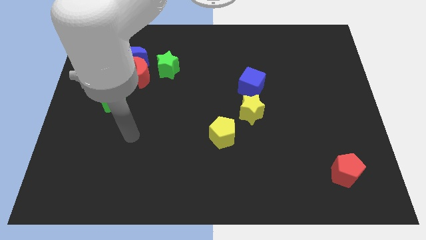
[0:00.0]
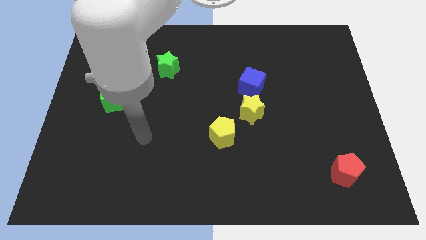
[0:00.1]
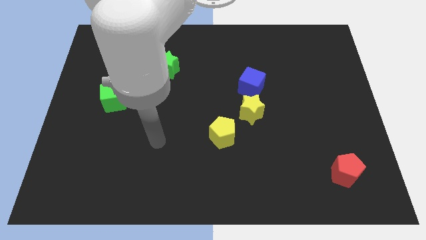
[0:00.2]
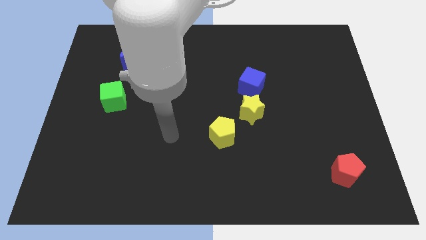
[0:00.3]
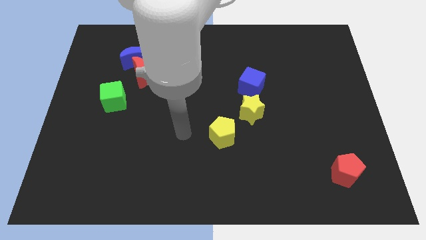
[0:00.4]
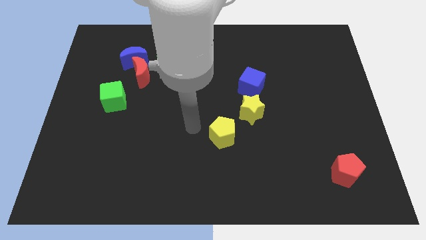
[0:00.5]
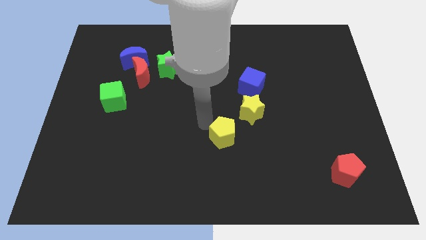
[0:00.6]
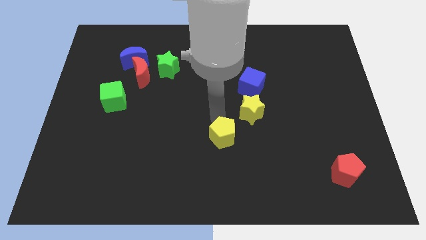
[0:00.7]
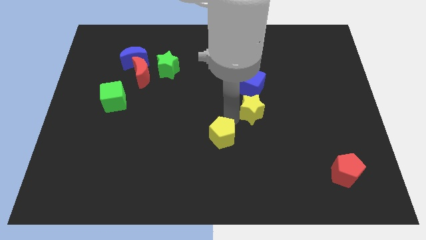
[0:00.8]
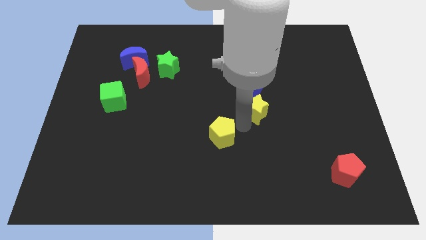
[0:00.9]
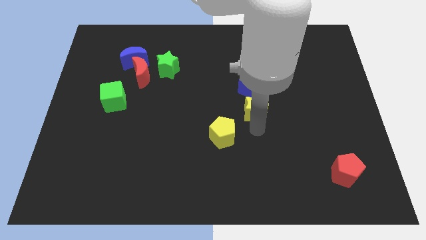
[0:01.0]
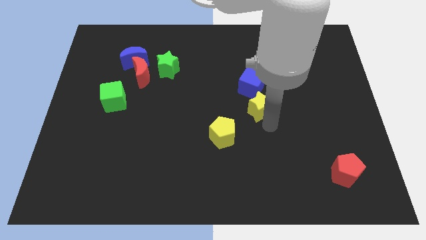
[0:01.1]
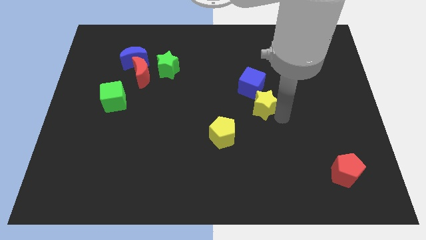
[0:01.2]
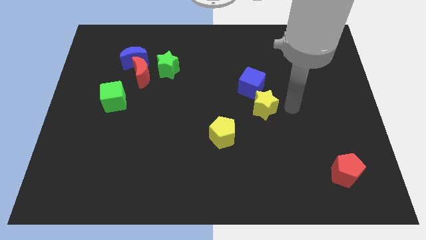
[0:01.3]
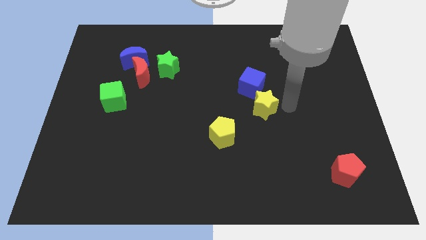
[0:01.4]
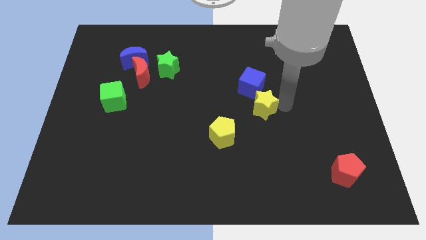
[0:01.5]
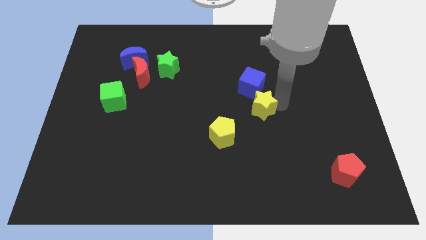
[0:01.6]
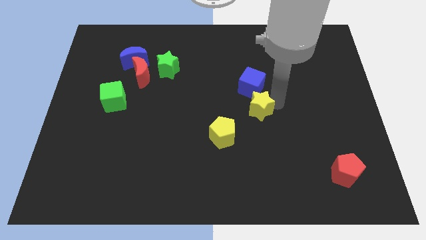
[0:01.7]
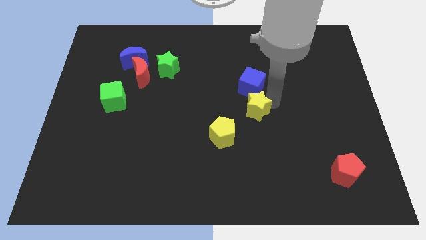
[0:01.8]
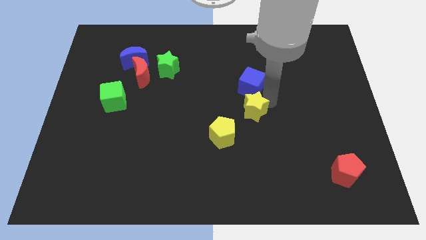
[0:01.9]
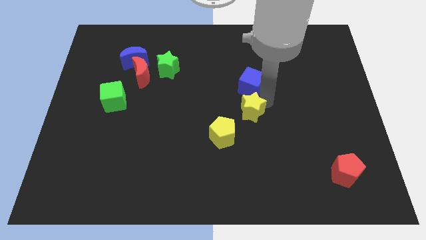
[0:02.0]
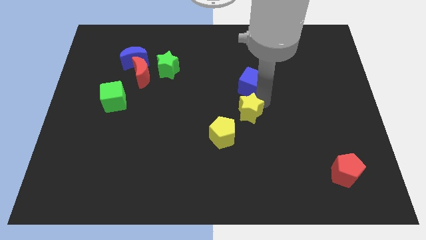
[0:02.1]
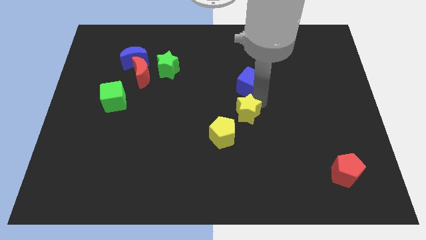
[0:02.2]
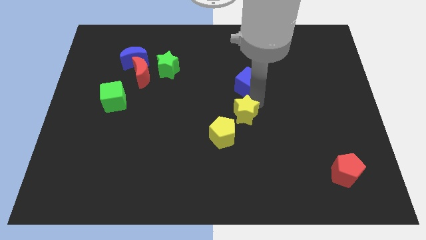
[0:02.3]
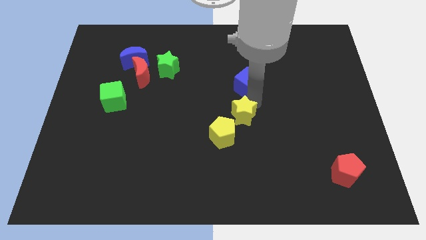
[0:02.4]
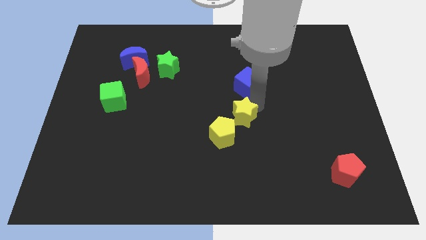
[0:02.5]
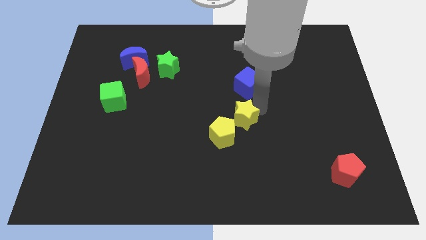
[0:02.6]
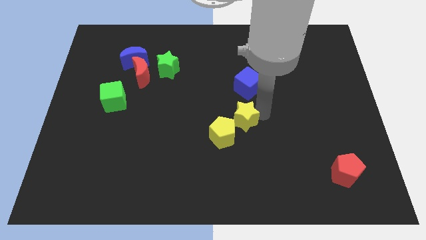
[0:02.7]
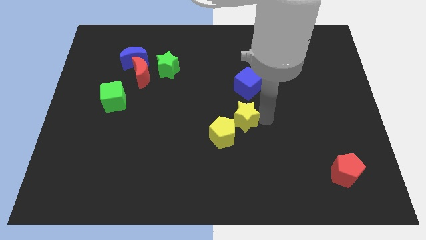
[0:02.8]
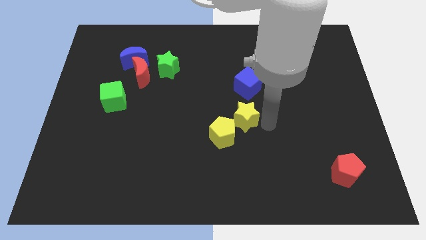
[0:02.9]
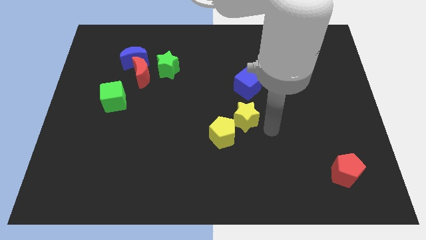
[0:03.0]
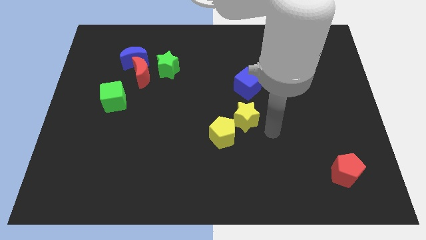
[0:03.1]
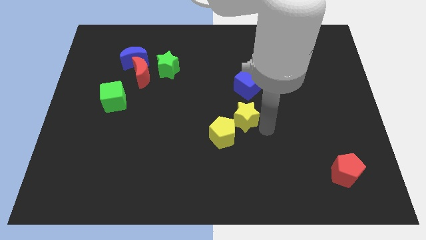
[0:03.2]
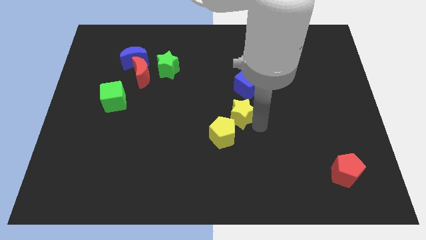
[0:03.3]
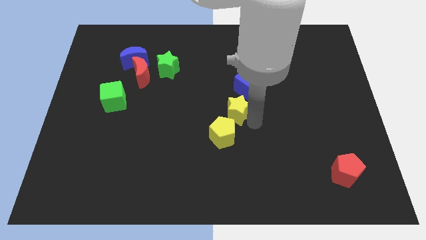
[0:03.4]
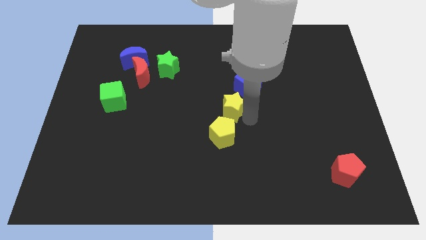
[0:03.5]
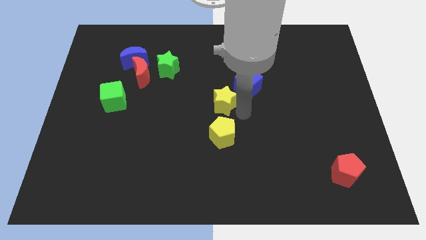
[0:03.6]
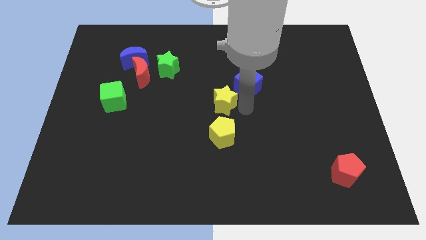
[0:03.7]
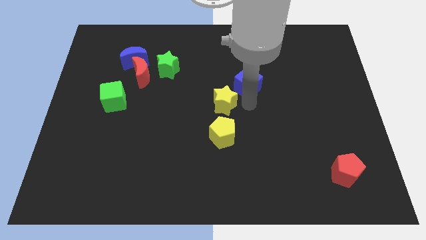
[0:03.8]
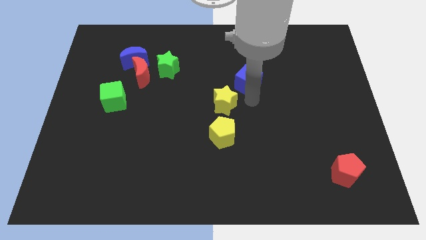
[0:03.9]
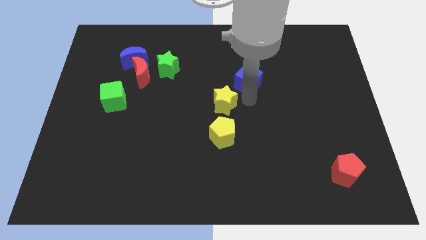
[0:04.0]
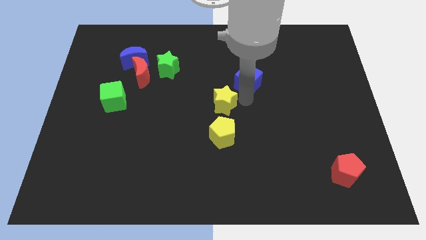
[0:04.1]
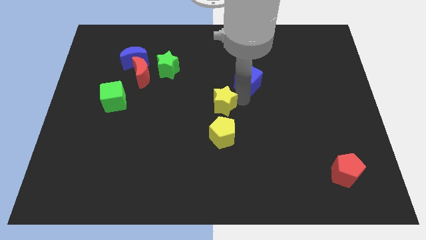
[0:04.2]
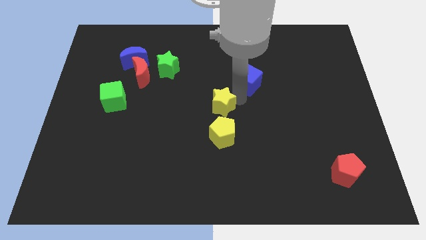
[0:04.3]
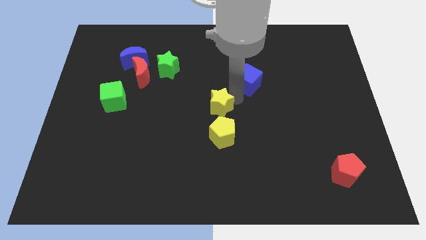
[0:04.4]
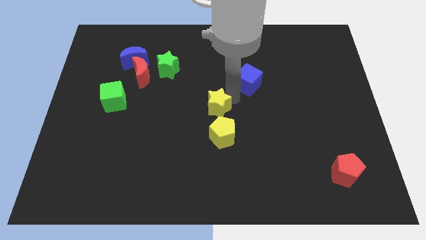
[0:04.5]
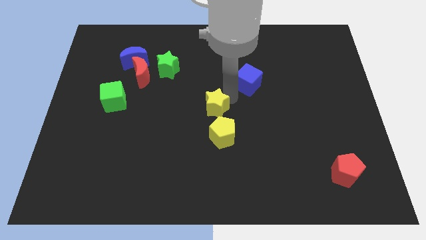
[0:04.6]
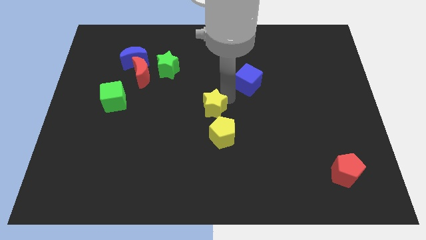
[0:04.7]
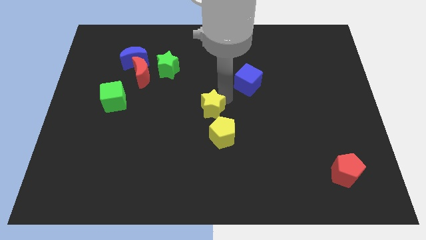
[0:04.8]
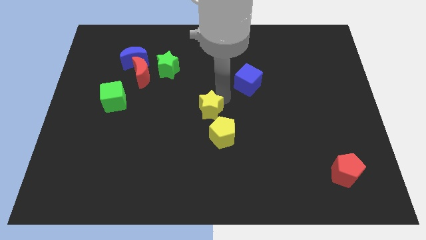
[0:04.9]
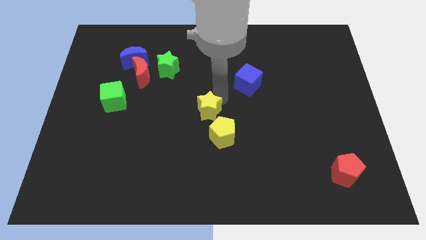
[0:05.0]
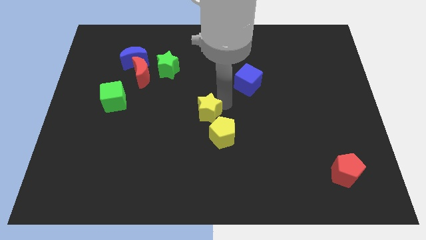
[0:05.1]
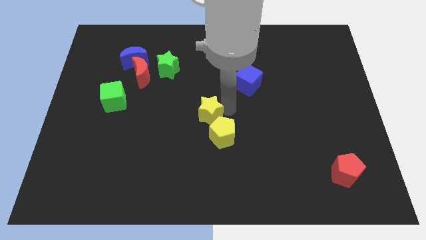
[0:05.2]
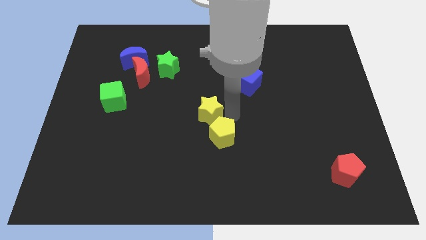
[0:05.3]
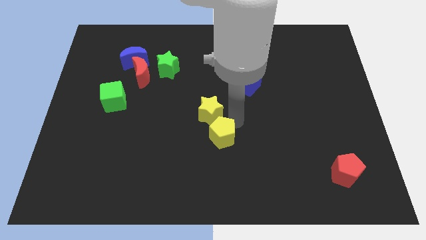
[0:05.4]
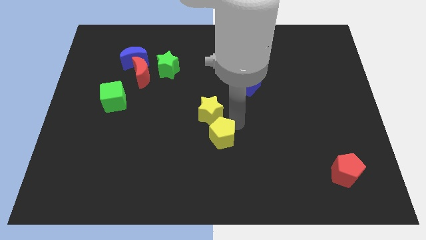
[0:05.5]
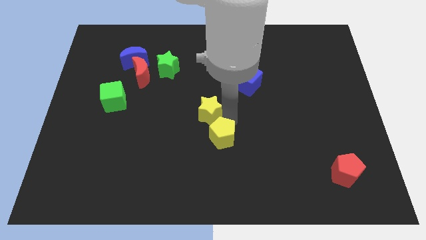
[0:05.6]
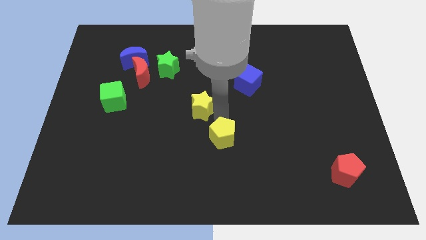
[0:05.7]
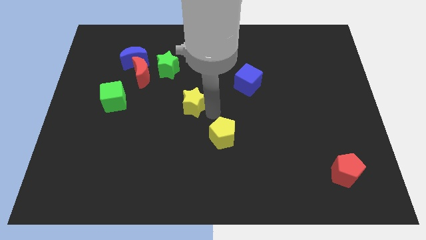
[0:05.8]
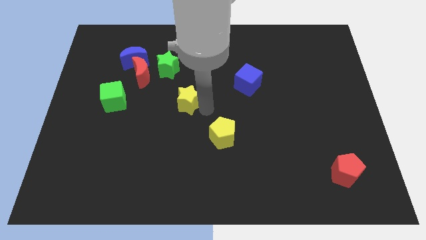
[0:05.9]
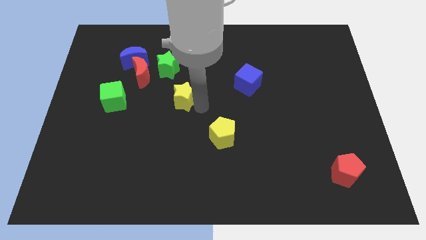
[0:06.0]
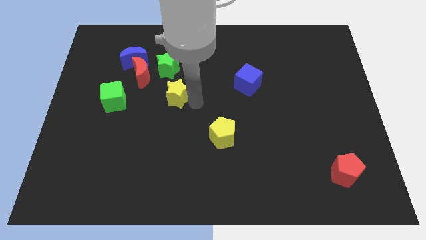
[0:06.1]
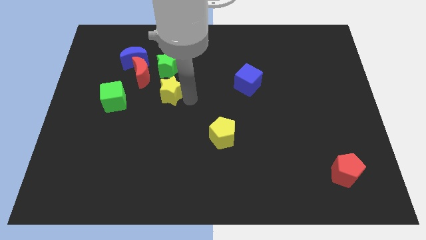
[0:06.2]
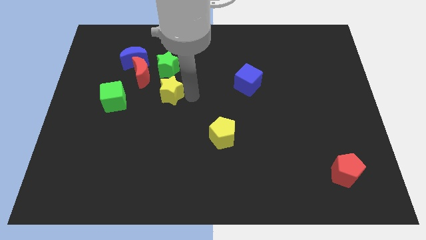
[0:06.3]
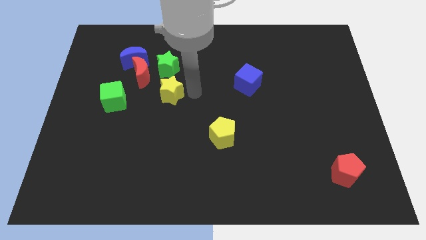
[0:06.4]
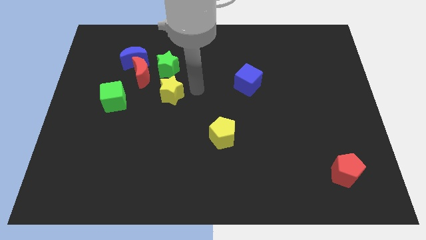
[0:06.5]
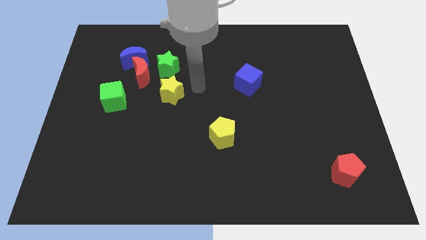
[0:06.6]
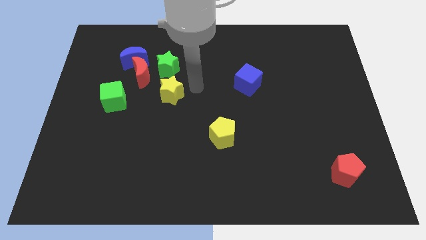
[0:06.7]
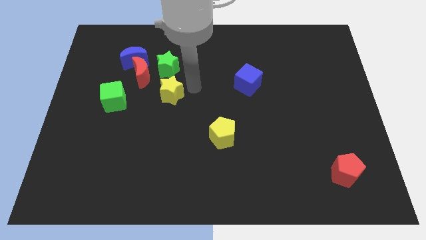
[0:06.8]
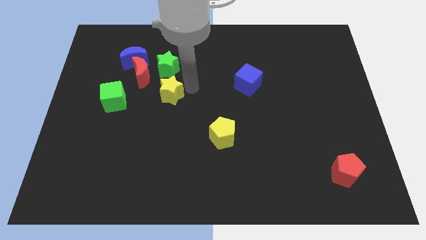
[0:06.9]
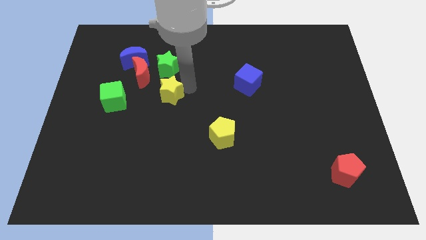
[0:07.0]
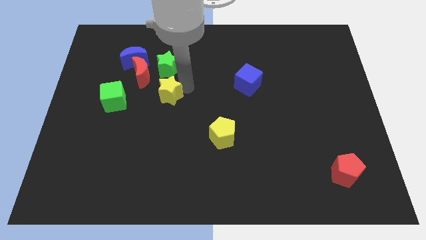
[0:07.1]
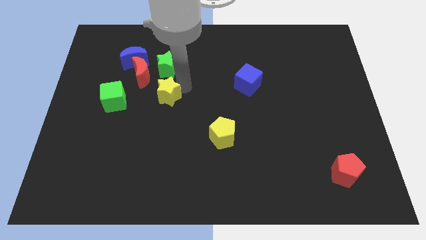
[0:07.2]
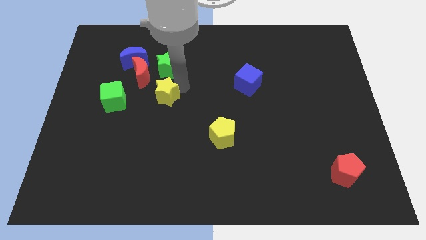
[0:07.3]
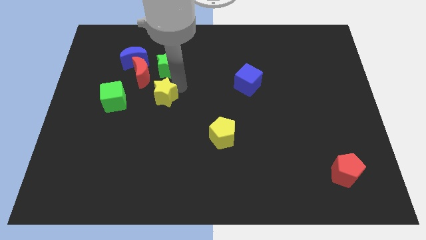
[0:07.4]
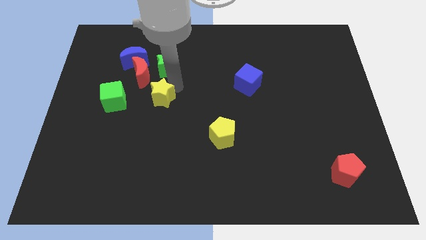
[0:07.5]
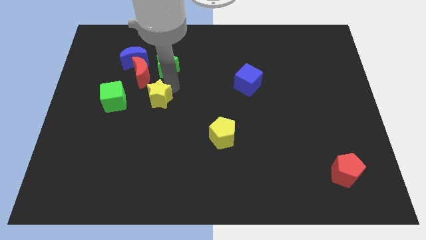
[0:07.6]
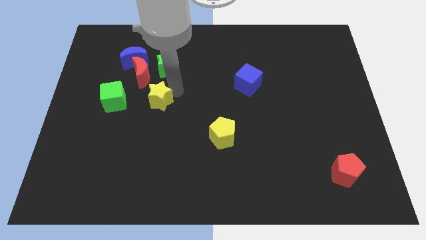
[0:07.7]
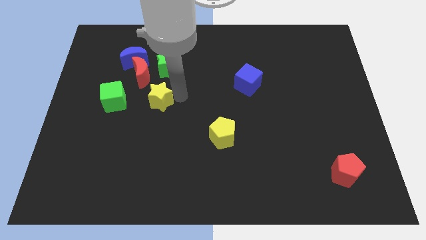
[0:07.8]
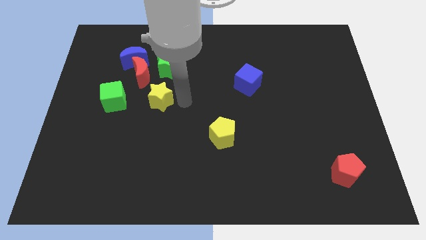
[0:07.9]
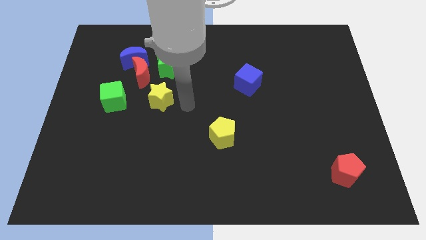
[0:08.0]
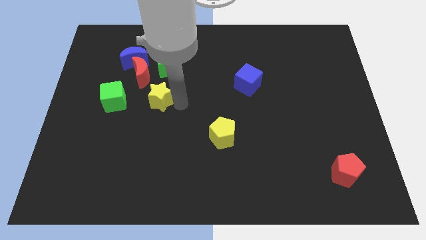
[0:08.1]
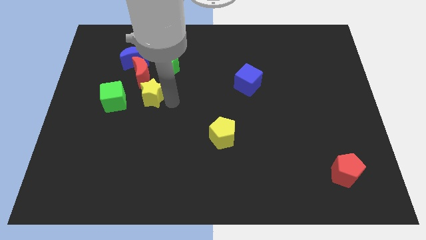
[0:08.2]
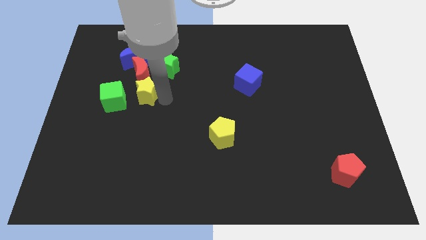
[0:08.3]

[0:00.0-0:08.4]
move the yellow star below the blue moon
